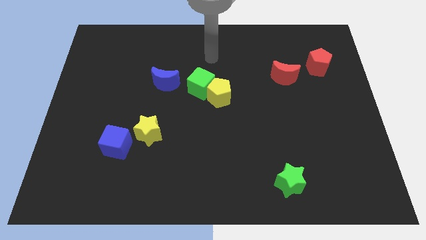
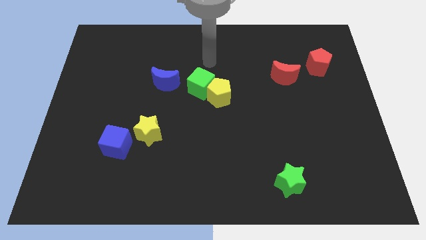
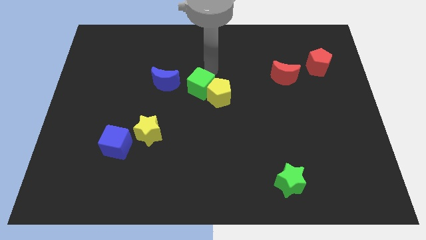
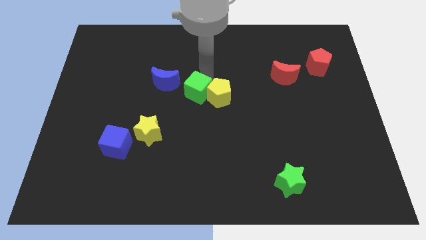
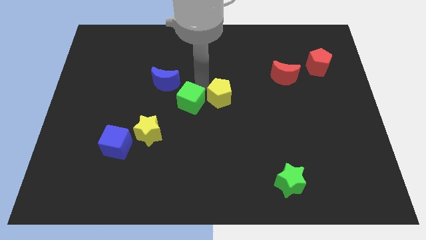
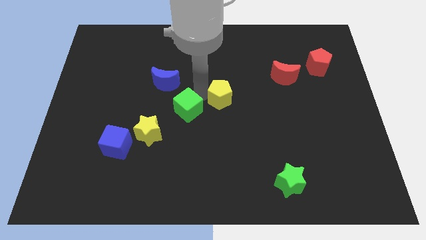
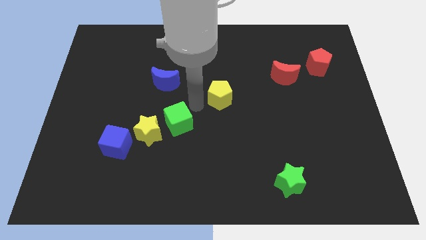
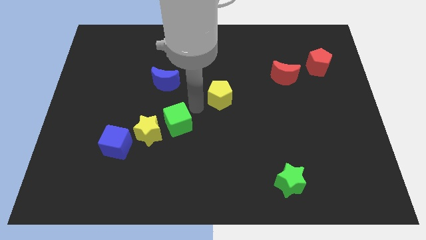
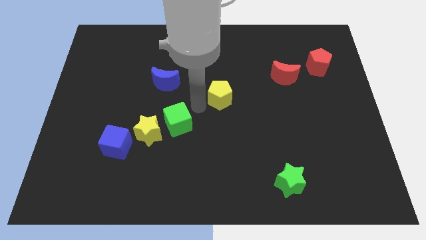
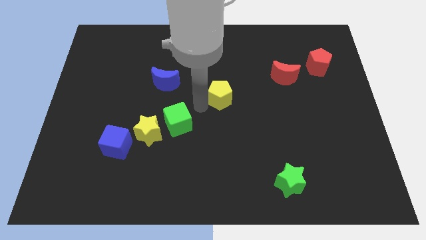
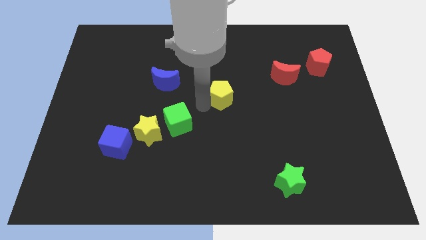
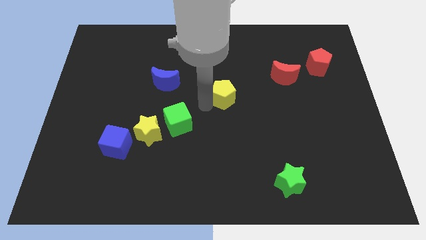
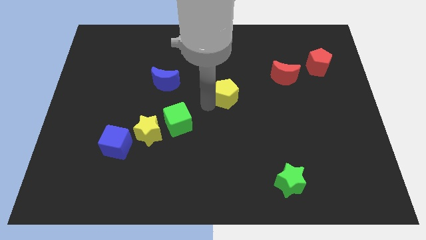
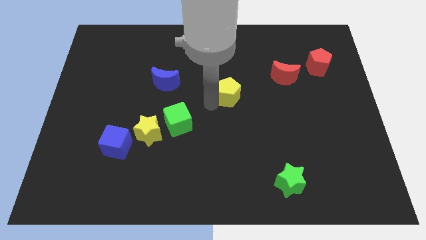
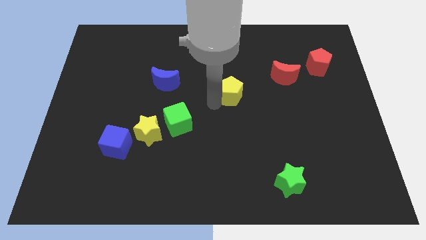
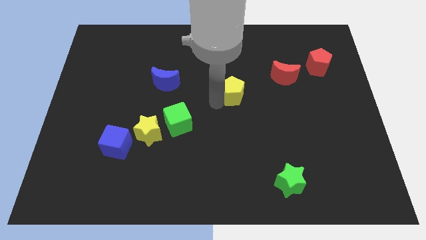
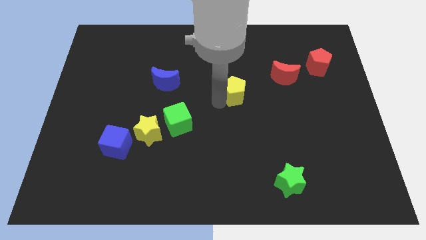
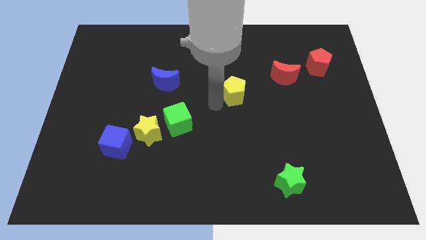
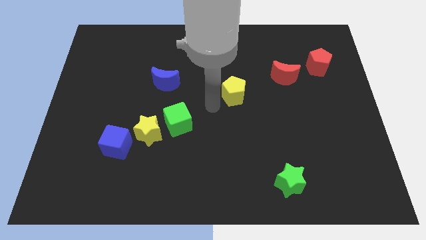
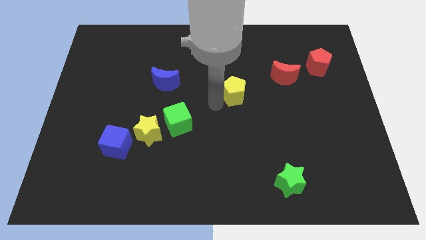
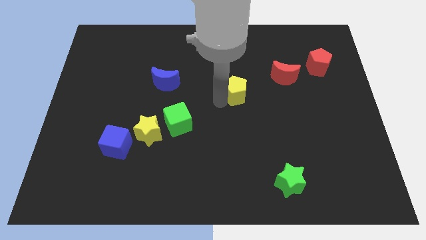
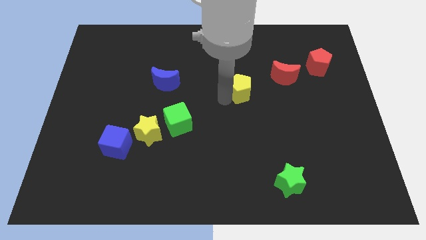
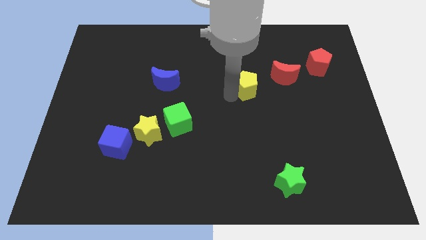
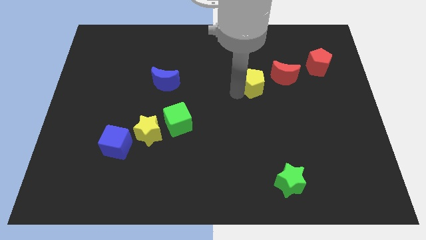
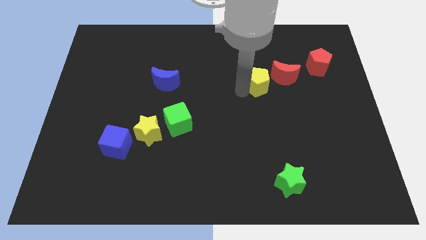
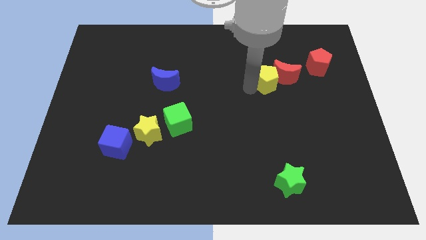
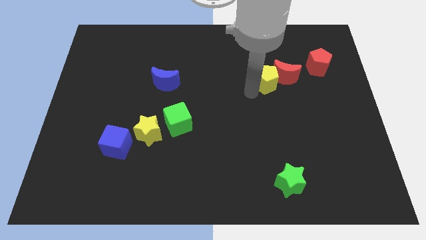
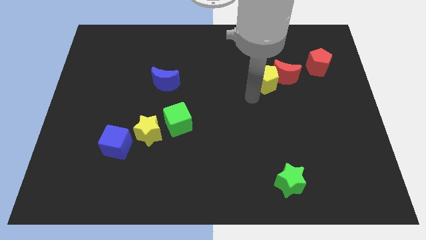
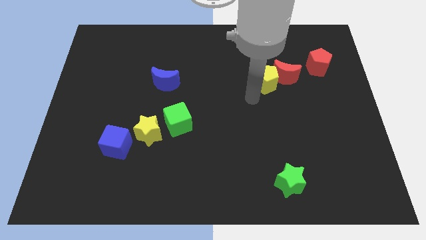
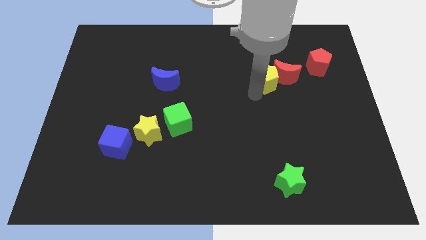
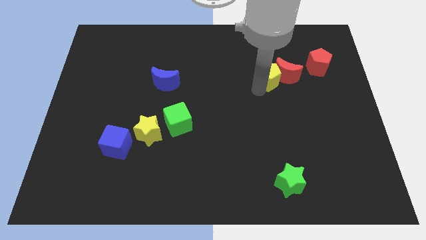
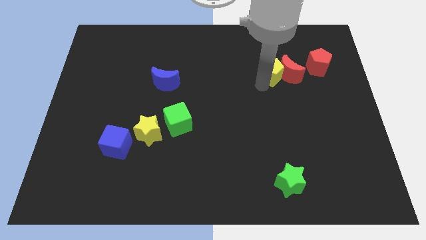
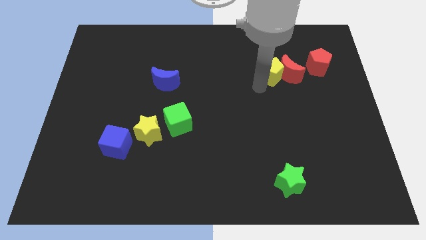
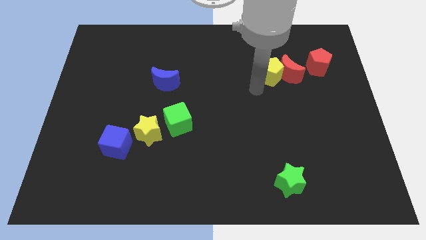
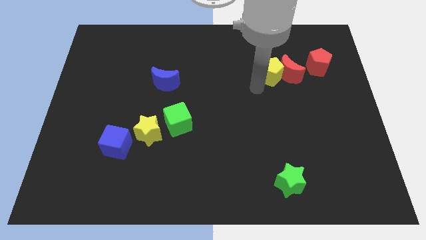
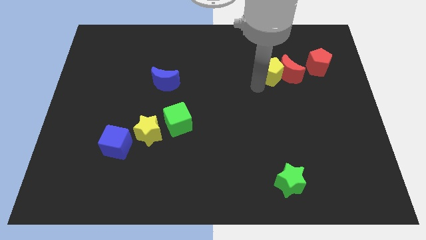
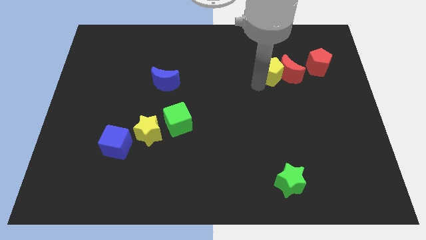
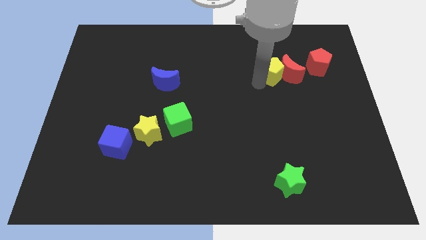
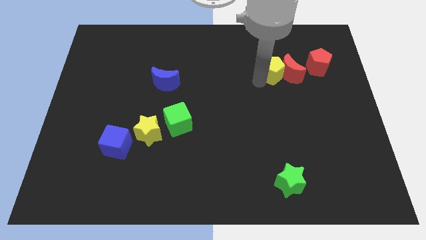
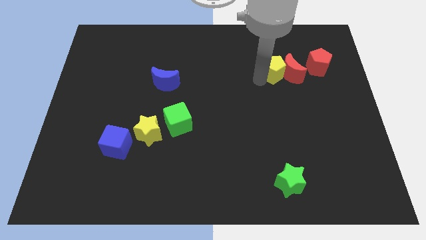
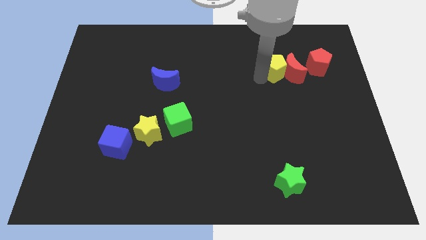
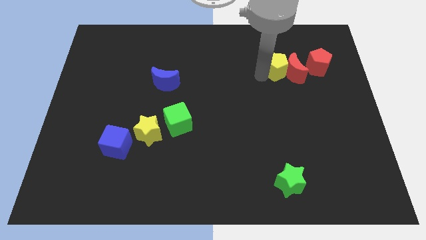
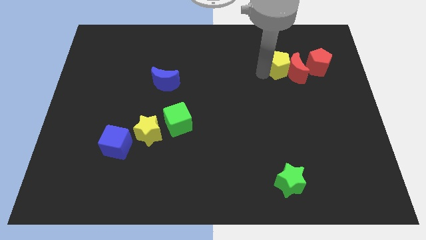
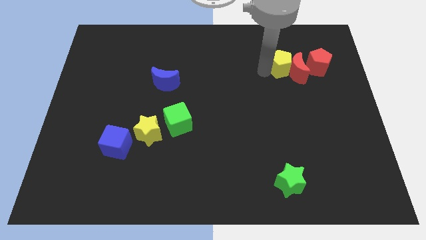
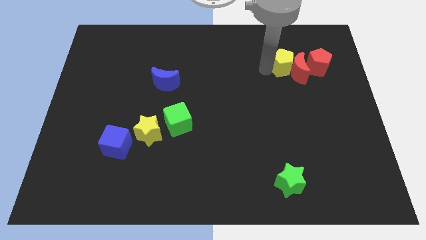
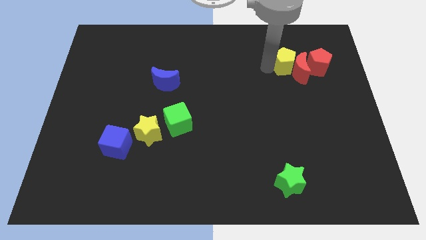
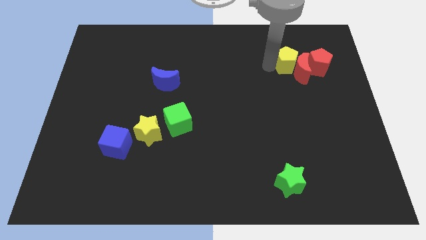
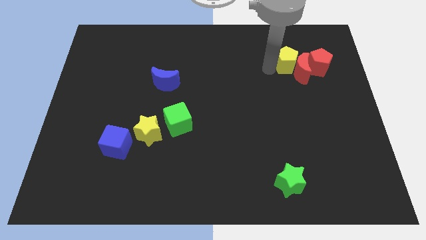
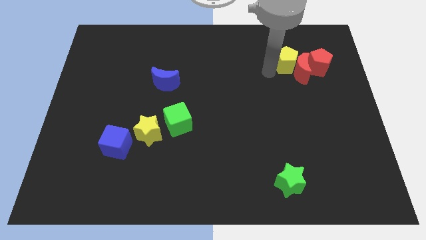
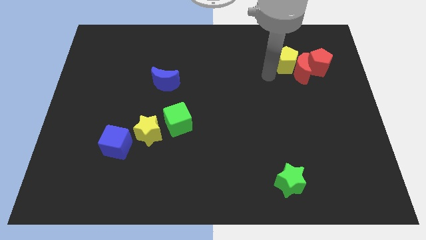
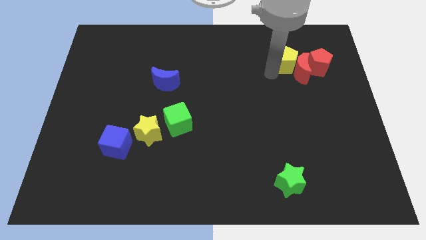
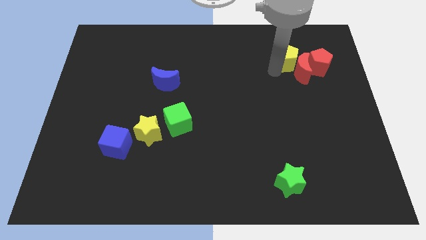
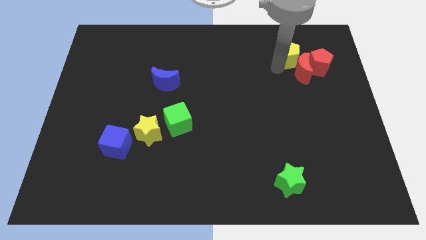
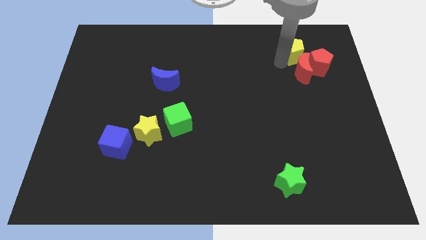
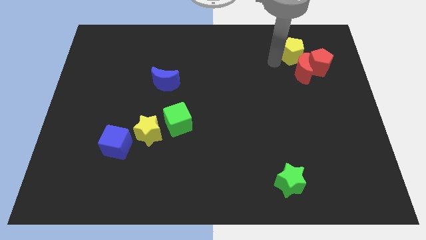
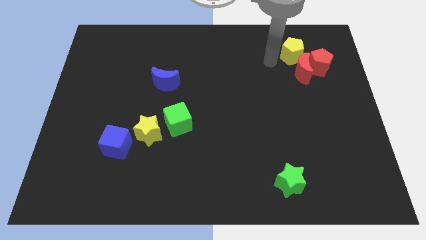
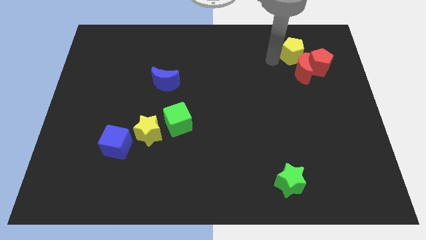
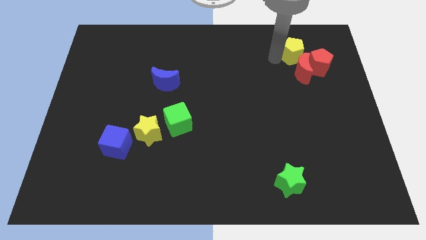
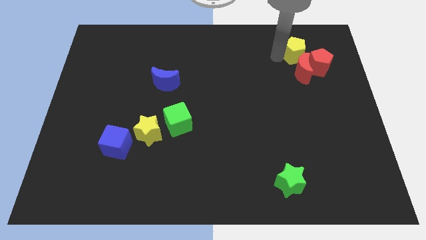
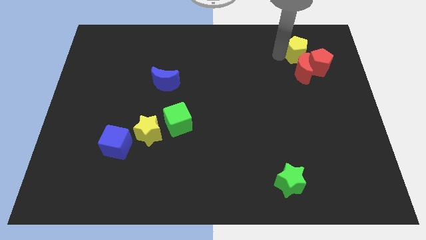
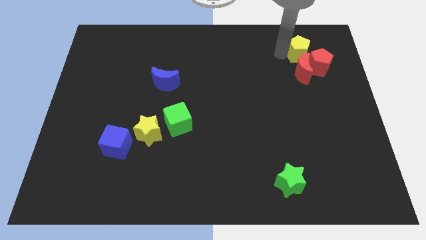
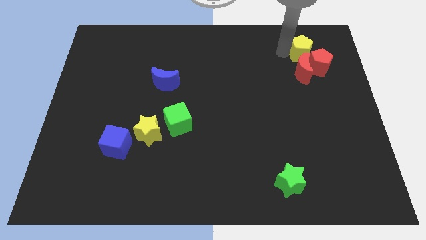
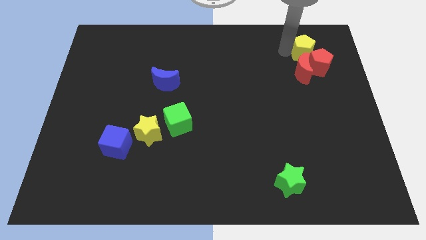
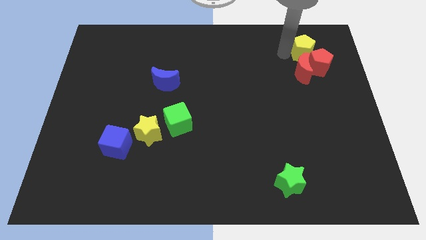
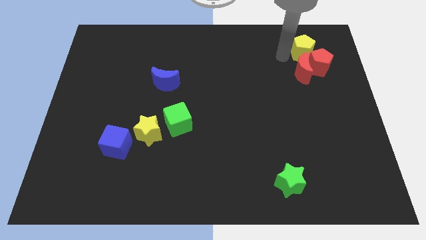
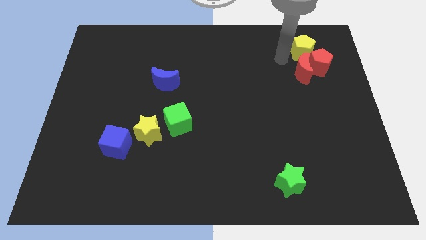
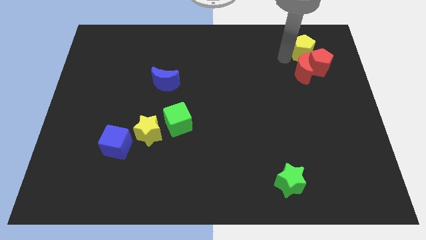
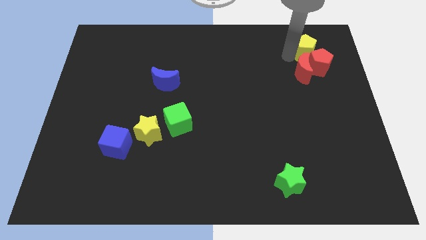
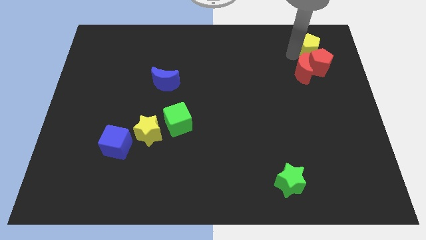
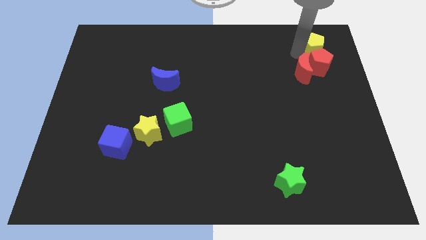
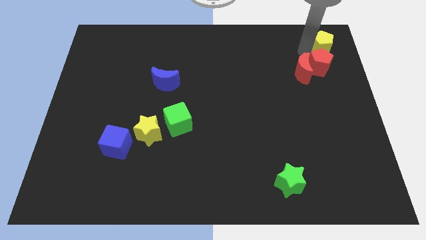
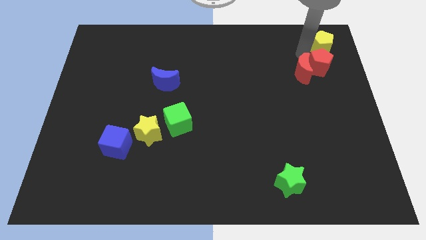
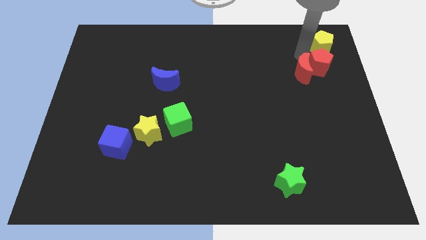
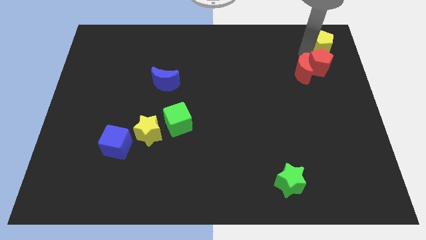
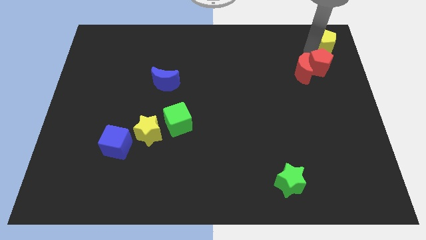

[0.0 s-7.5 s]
slide the yellow pentagon to the top right of the board
